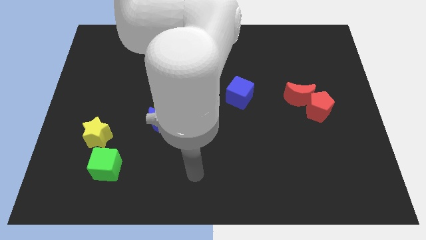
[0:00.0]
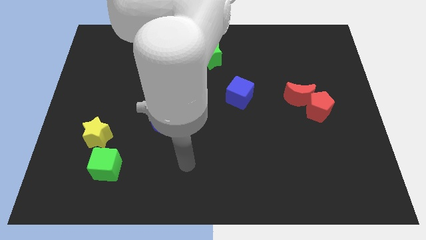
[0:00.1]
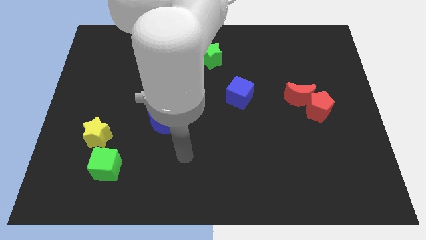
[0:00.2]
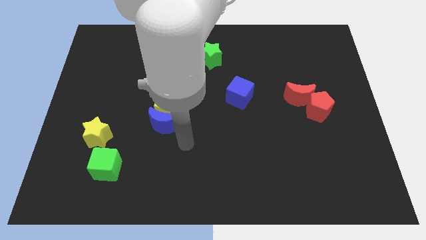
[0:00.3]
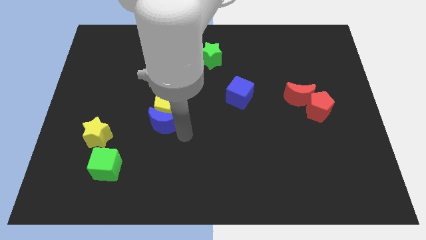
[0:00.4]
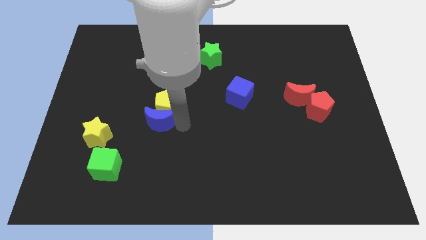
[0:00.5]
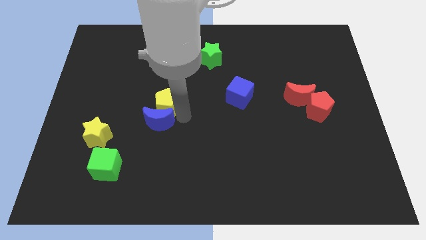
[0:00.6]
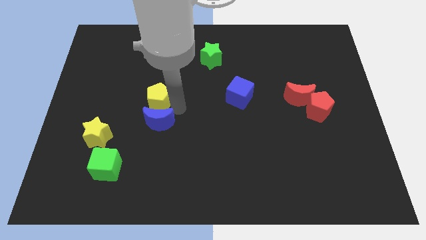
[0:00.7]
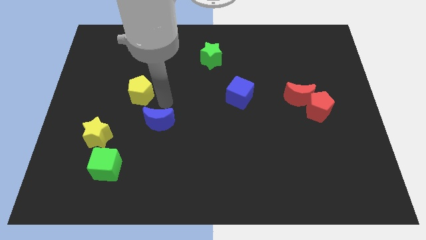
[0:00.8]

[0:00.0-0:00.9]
move the blue moon away from the yellow pentagon

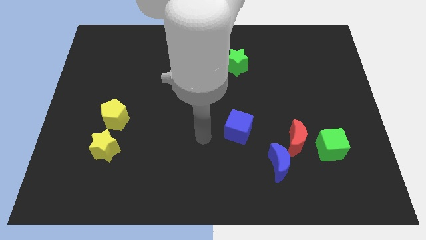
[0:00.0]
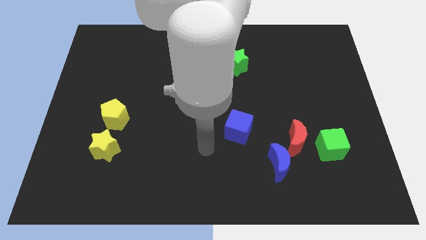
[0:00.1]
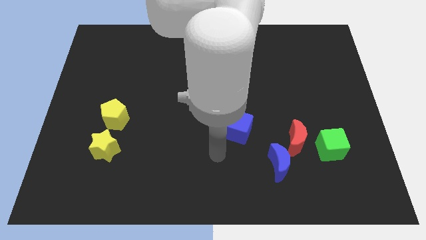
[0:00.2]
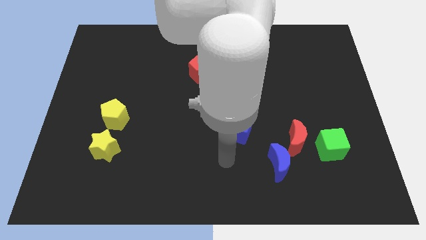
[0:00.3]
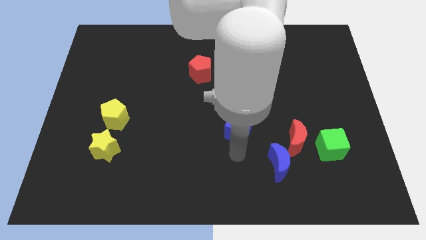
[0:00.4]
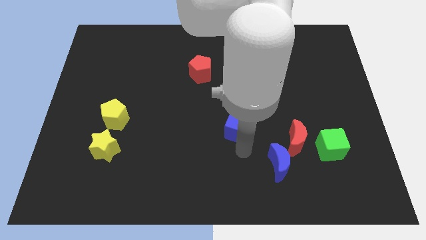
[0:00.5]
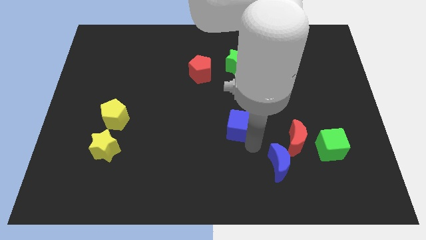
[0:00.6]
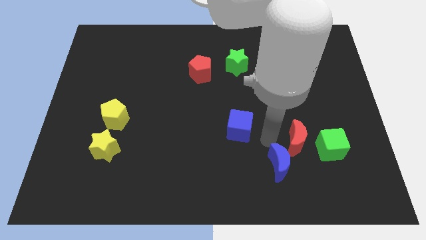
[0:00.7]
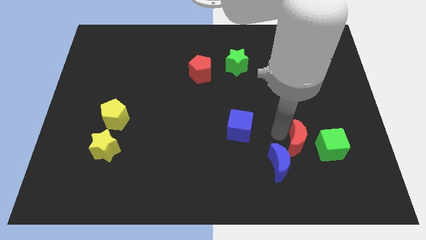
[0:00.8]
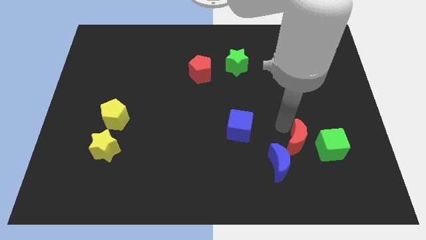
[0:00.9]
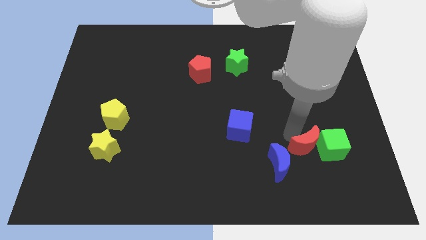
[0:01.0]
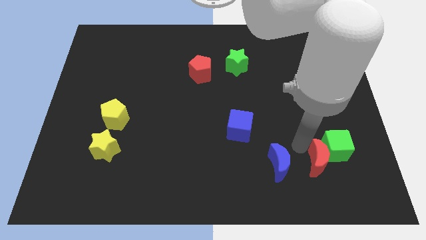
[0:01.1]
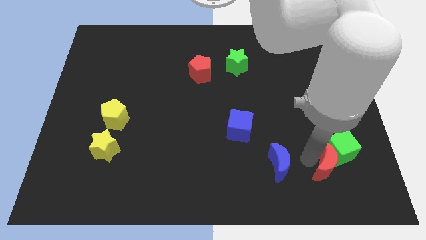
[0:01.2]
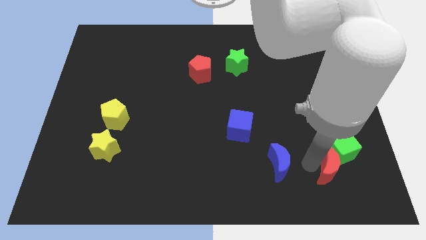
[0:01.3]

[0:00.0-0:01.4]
pull the blue moon apart from the red moon

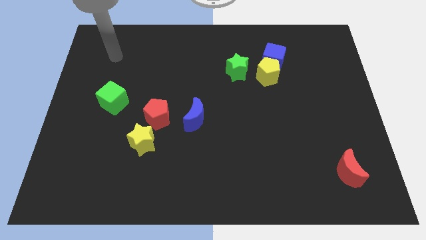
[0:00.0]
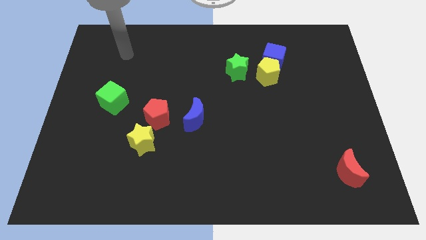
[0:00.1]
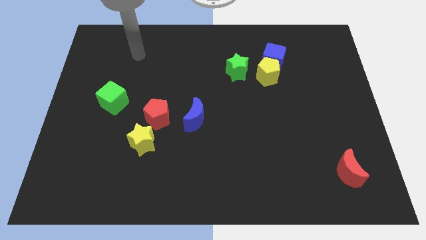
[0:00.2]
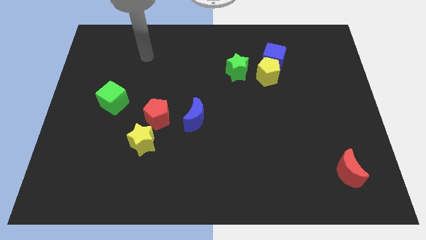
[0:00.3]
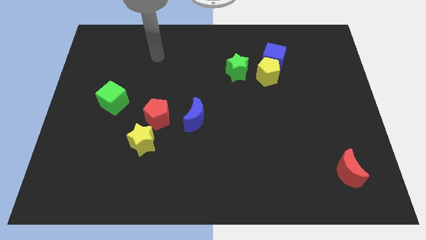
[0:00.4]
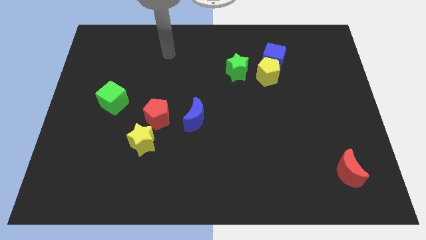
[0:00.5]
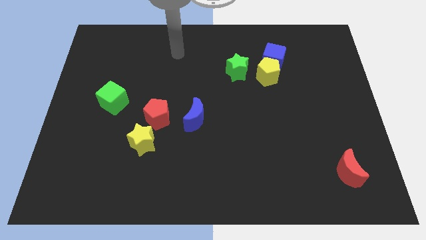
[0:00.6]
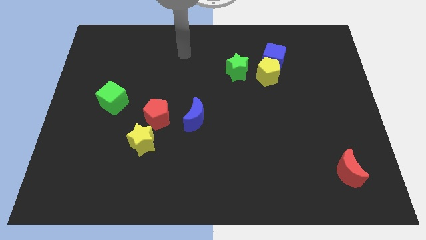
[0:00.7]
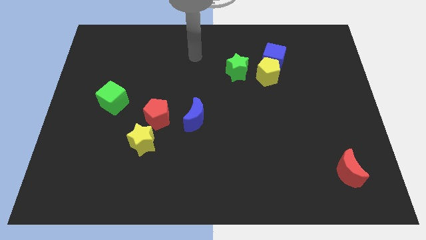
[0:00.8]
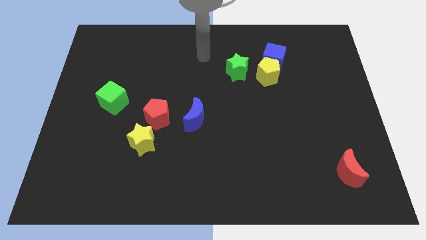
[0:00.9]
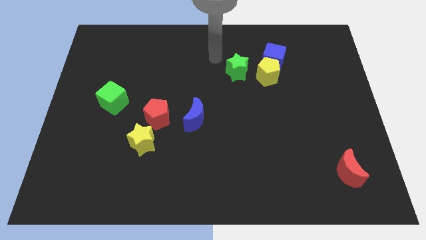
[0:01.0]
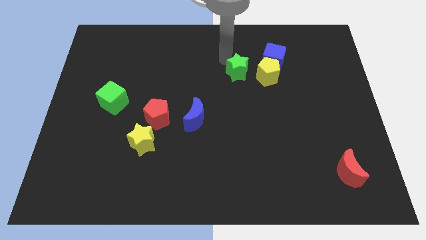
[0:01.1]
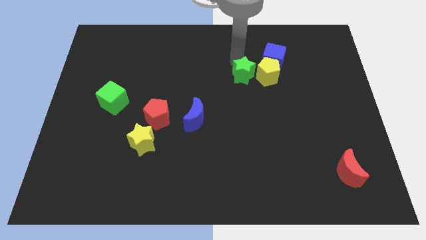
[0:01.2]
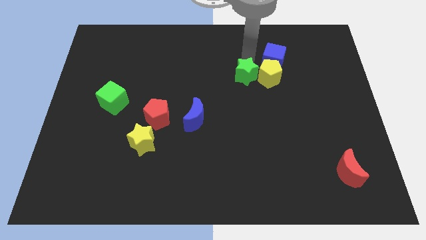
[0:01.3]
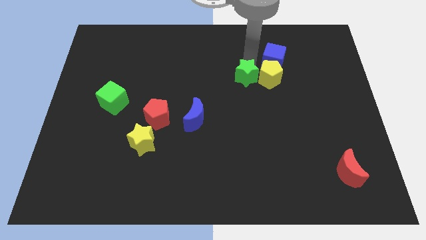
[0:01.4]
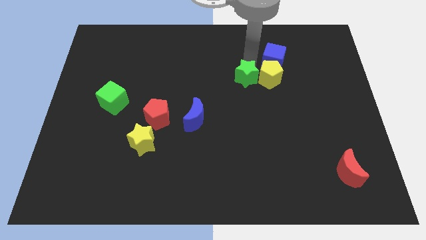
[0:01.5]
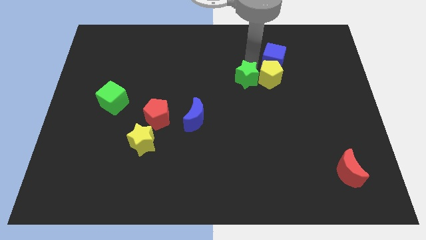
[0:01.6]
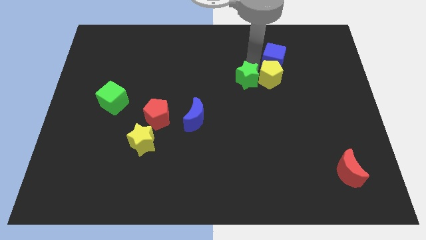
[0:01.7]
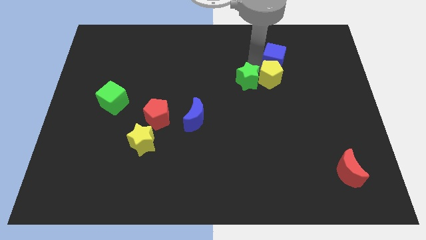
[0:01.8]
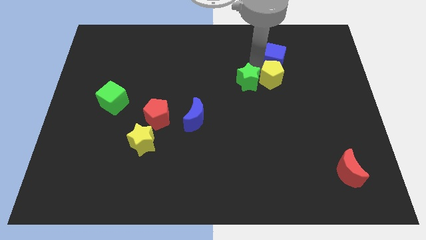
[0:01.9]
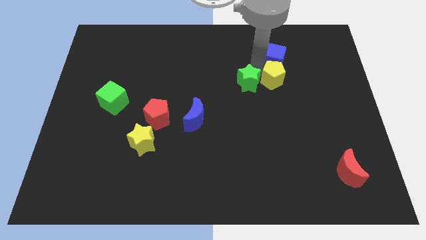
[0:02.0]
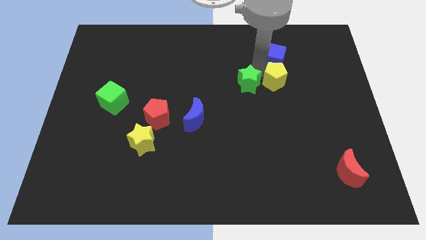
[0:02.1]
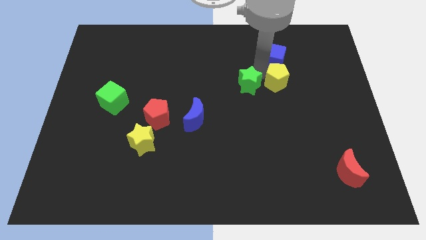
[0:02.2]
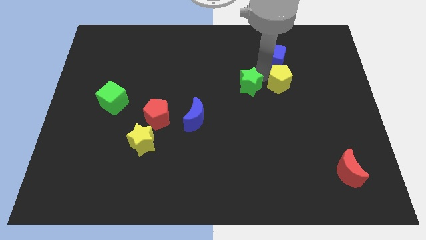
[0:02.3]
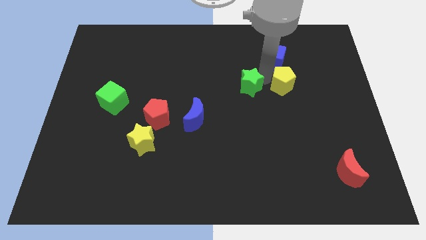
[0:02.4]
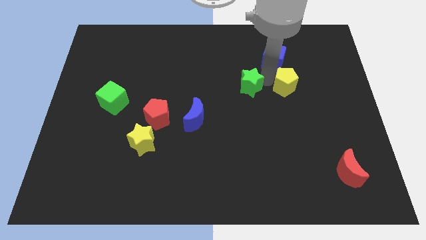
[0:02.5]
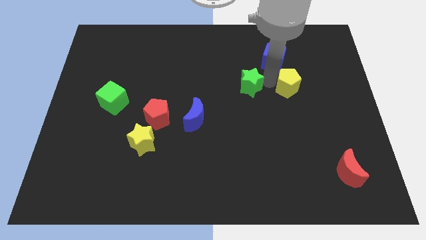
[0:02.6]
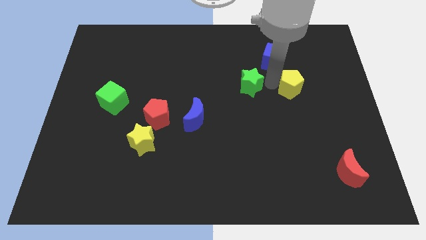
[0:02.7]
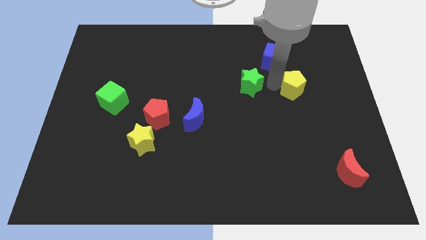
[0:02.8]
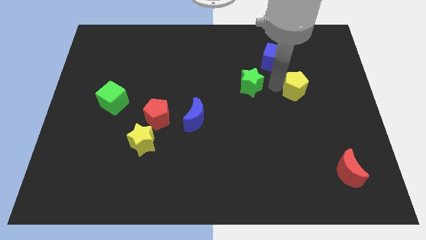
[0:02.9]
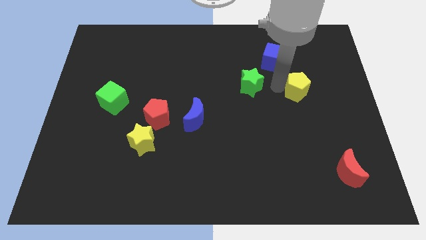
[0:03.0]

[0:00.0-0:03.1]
pull the yellow pentagon apart from the blue cube and green star

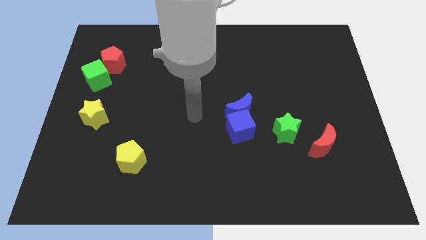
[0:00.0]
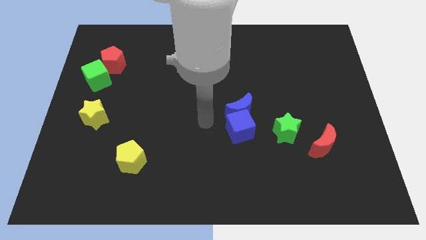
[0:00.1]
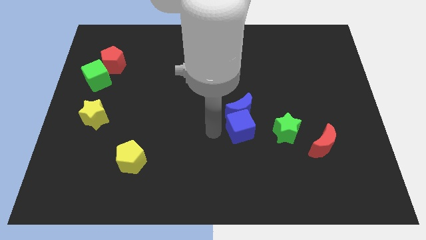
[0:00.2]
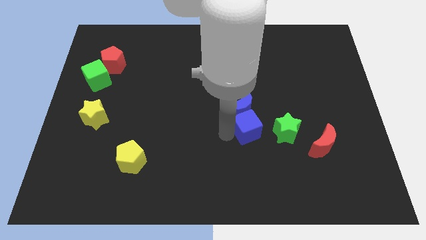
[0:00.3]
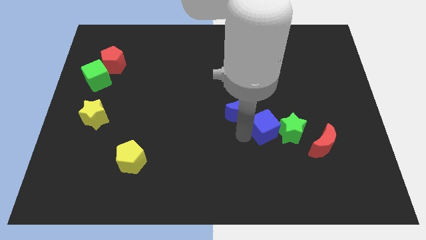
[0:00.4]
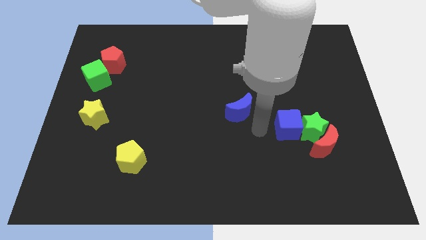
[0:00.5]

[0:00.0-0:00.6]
move the blue moon away from the blue cube

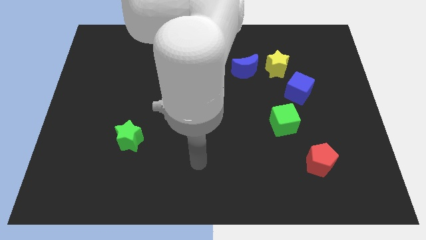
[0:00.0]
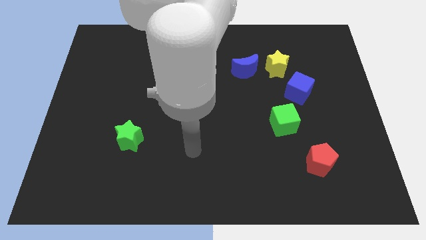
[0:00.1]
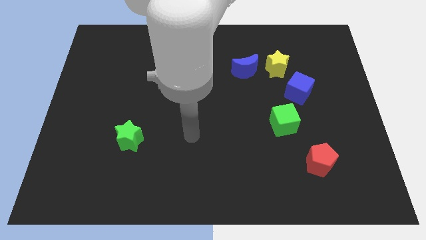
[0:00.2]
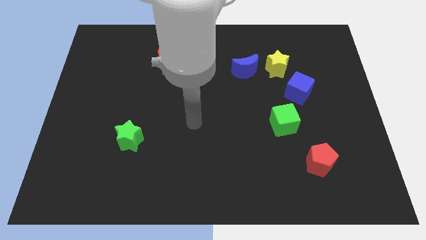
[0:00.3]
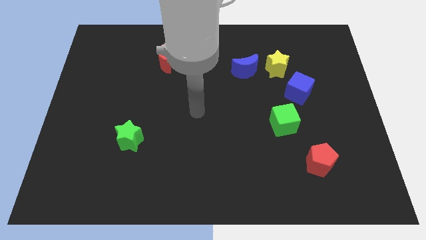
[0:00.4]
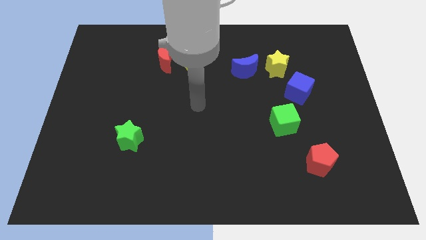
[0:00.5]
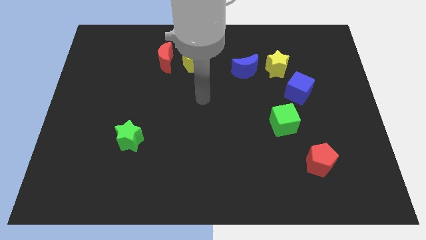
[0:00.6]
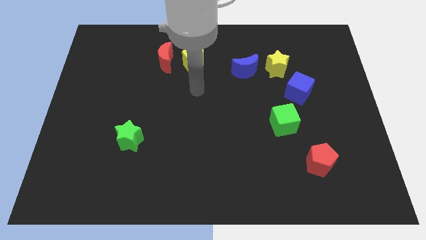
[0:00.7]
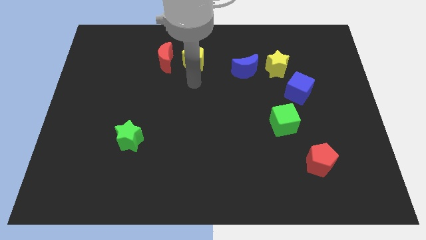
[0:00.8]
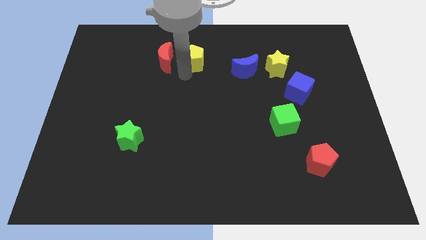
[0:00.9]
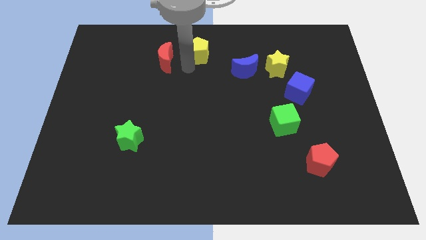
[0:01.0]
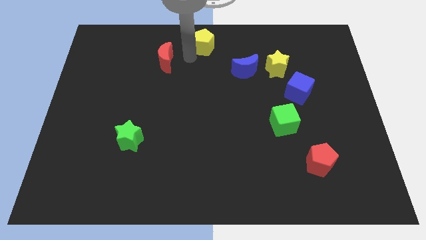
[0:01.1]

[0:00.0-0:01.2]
separate the red moon from the yellow pentagon

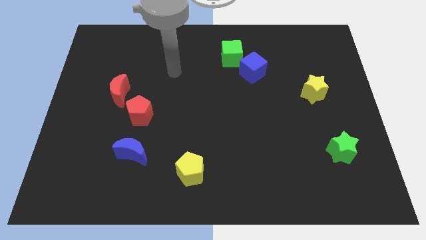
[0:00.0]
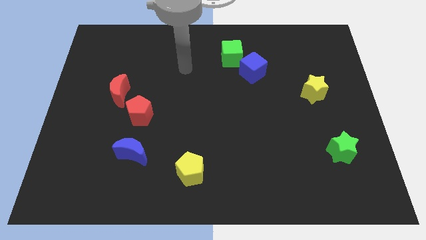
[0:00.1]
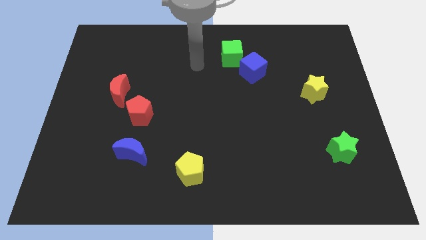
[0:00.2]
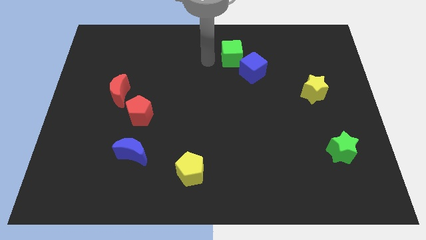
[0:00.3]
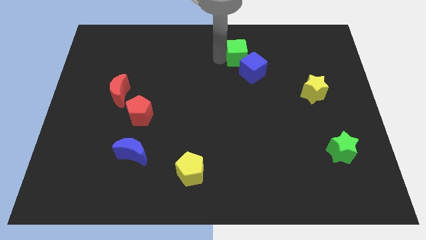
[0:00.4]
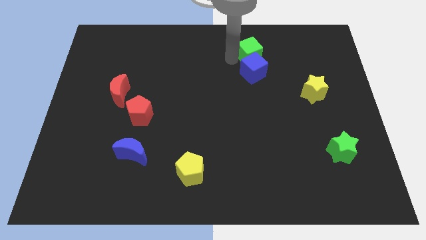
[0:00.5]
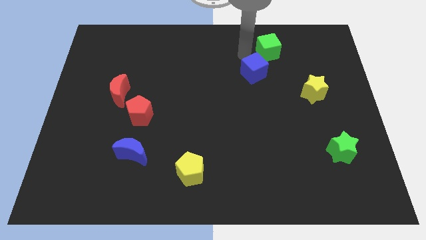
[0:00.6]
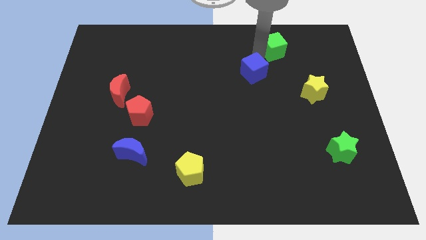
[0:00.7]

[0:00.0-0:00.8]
pull the blue cube apart from the green cube

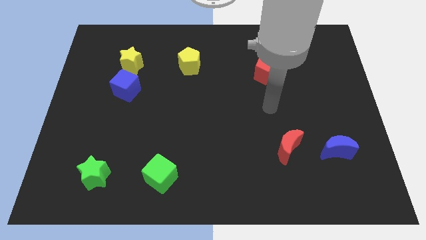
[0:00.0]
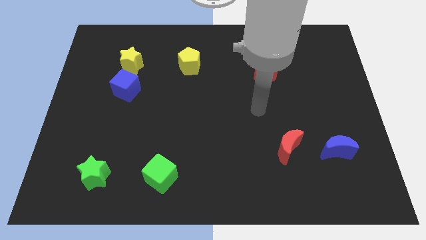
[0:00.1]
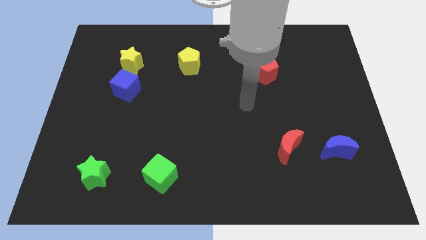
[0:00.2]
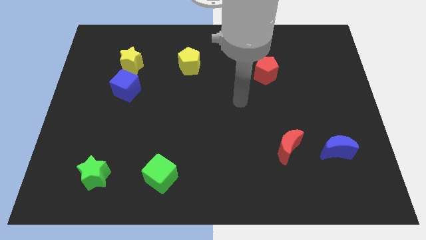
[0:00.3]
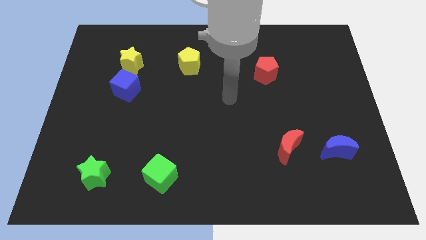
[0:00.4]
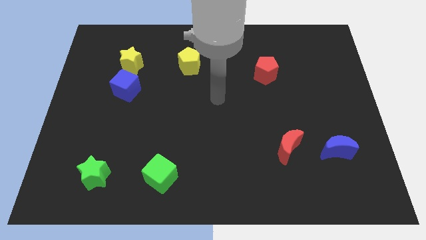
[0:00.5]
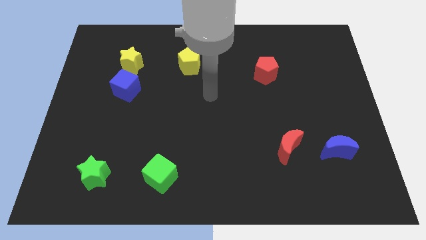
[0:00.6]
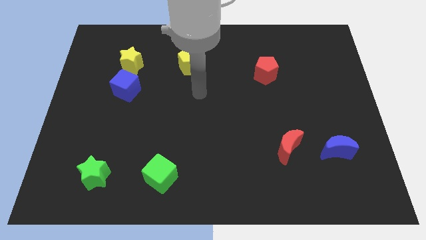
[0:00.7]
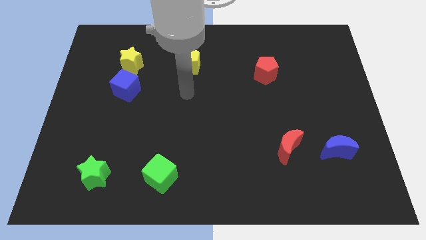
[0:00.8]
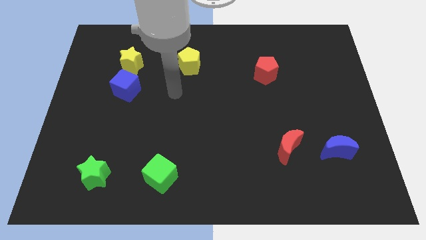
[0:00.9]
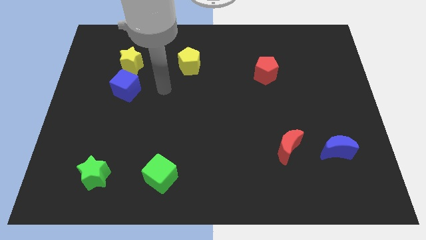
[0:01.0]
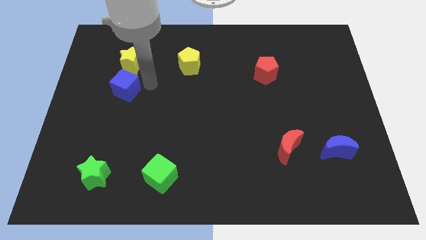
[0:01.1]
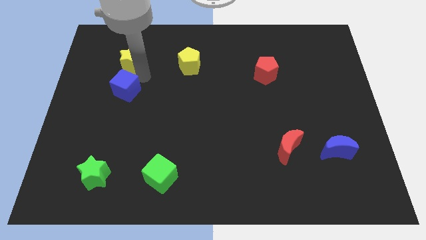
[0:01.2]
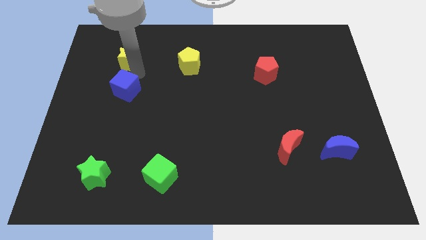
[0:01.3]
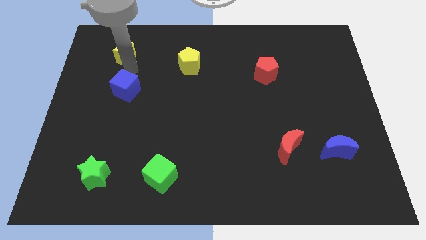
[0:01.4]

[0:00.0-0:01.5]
separate the blue cube from the yellow star
